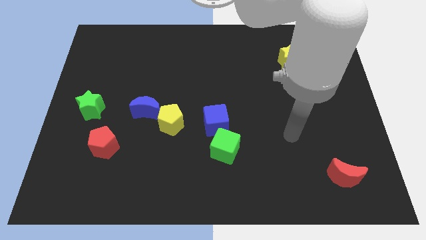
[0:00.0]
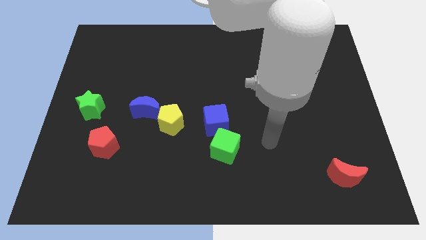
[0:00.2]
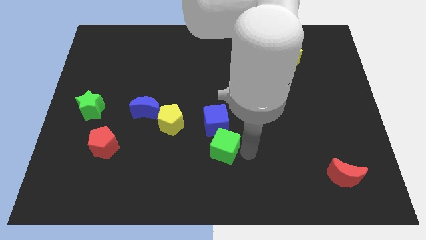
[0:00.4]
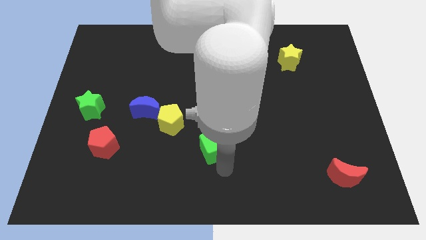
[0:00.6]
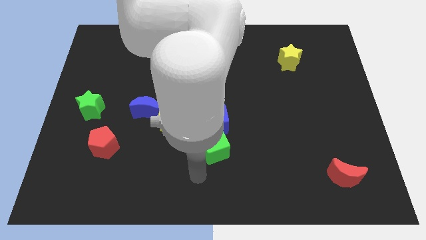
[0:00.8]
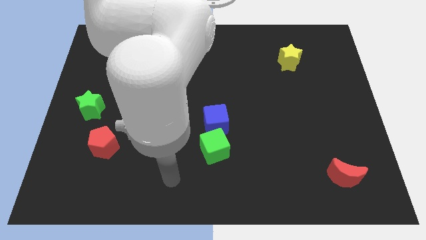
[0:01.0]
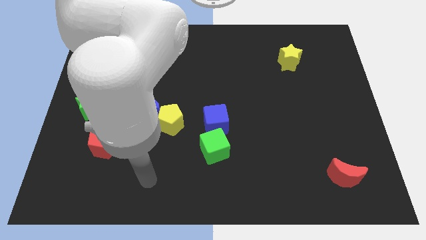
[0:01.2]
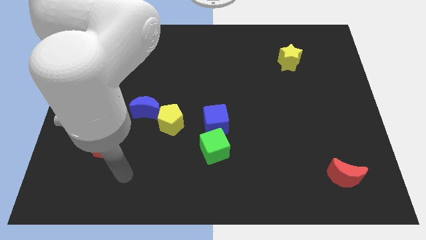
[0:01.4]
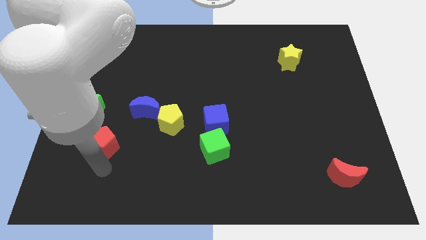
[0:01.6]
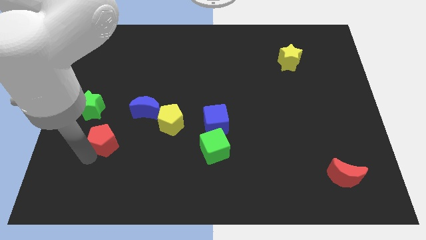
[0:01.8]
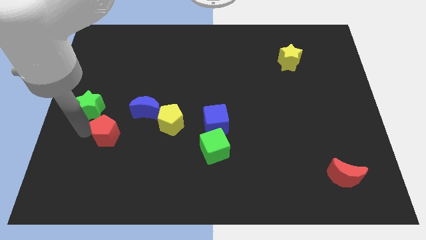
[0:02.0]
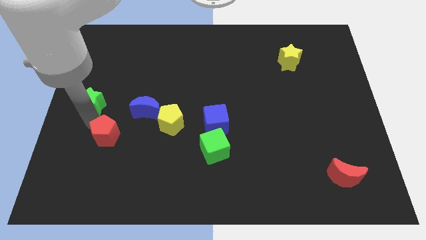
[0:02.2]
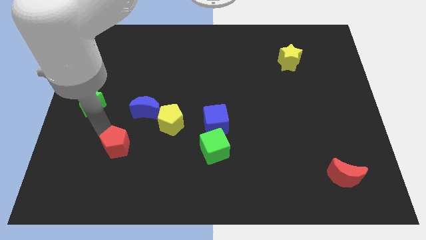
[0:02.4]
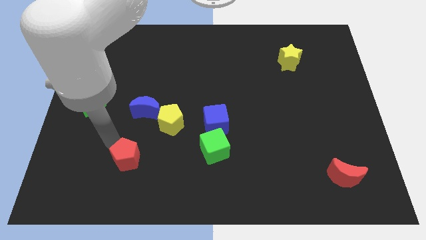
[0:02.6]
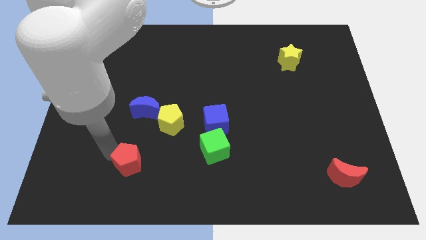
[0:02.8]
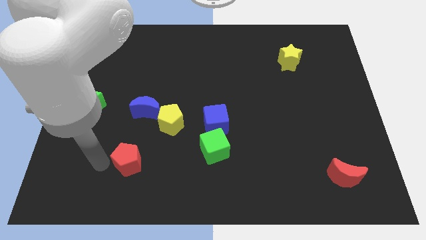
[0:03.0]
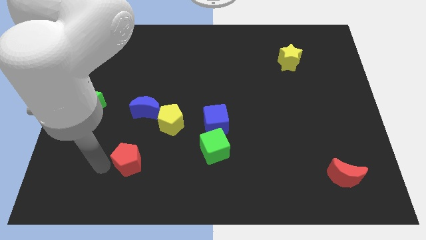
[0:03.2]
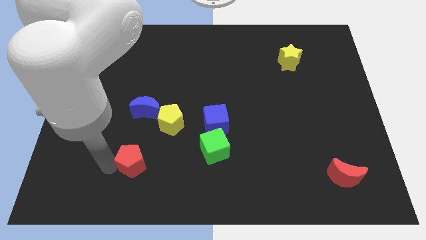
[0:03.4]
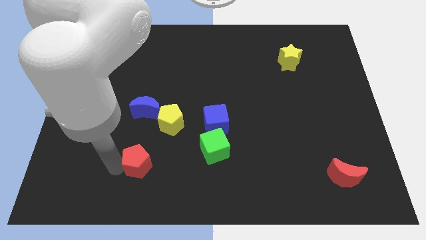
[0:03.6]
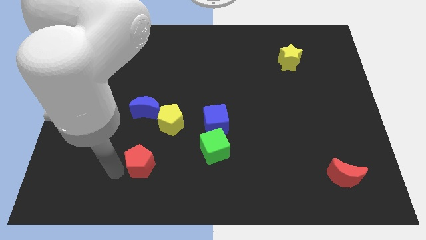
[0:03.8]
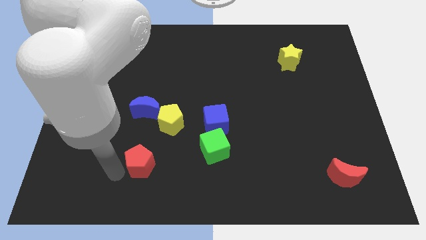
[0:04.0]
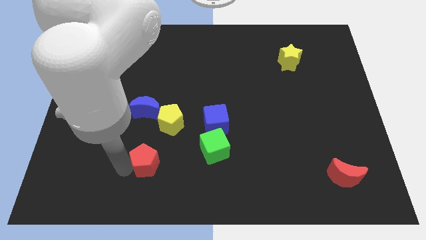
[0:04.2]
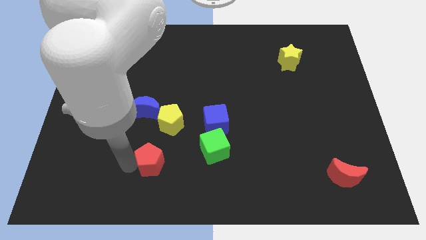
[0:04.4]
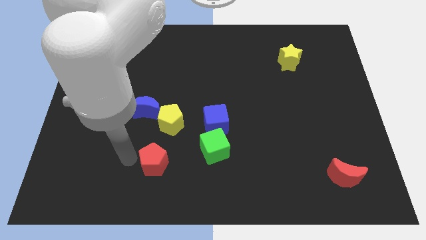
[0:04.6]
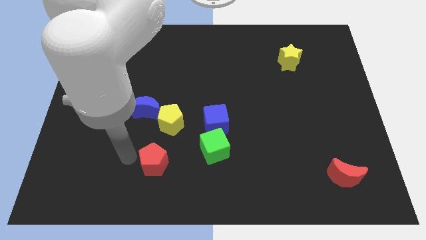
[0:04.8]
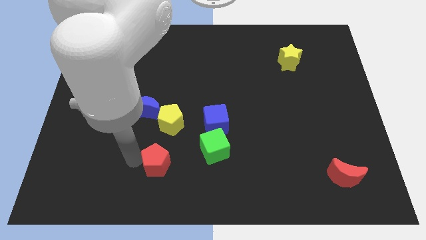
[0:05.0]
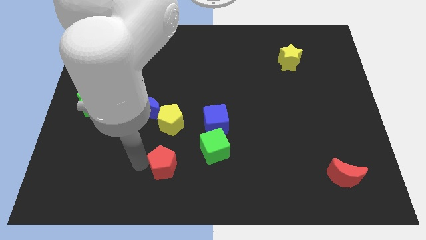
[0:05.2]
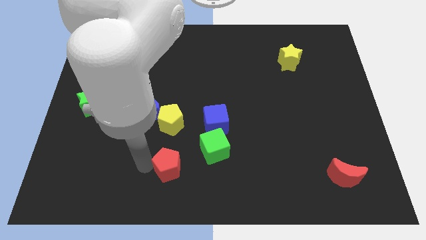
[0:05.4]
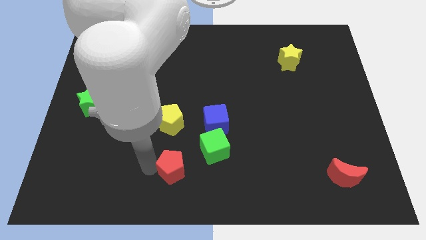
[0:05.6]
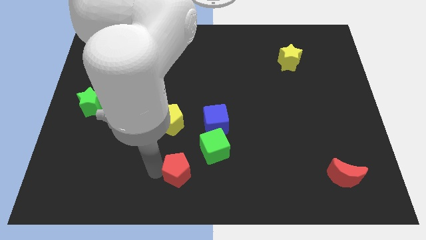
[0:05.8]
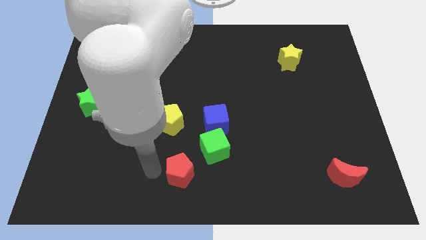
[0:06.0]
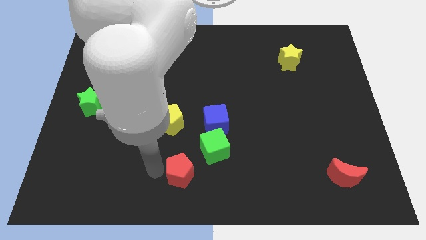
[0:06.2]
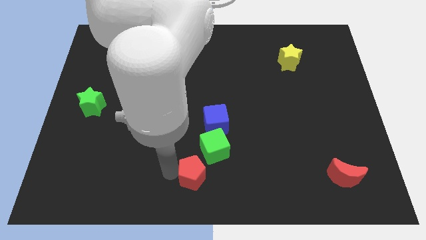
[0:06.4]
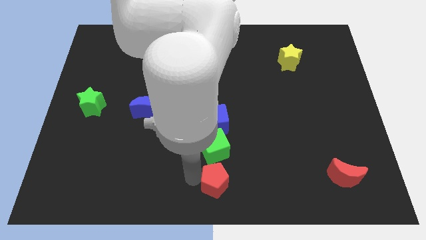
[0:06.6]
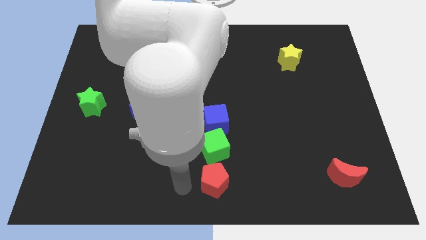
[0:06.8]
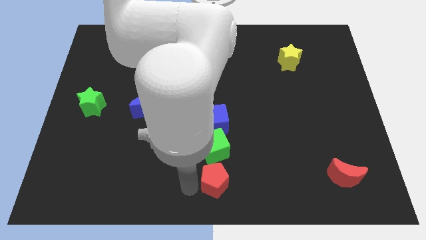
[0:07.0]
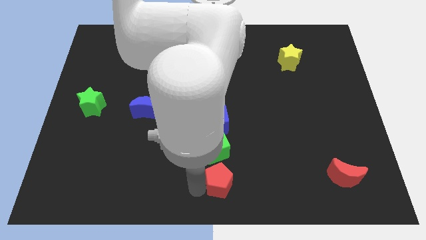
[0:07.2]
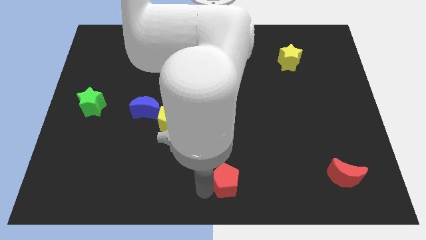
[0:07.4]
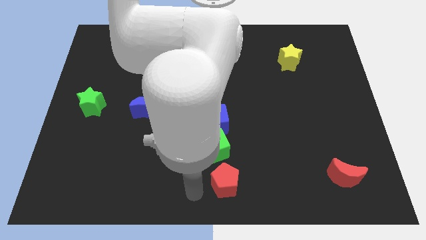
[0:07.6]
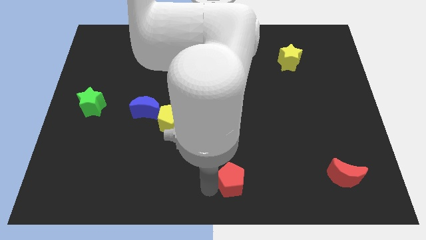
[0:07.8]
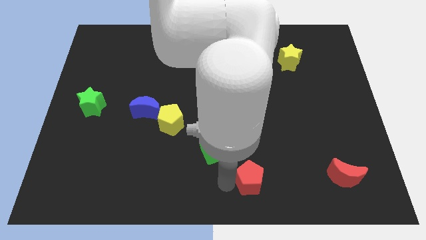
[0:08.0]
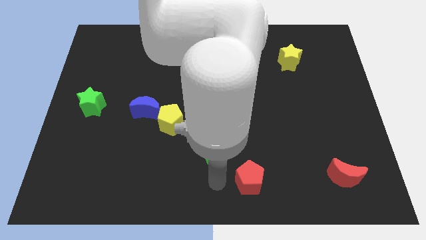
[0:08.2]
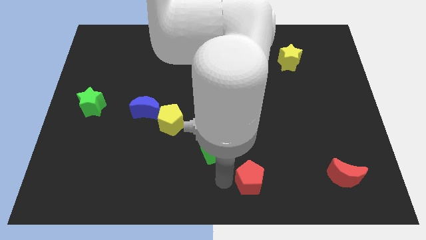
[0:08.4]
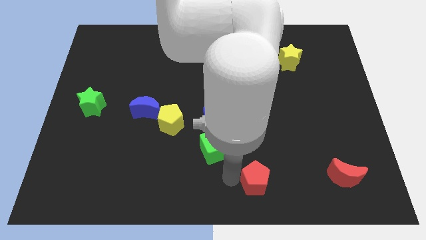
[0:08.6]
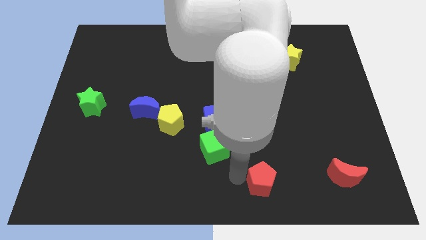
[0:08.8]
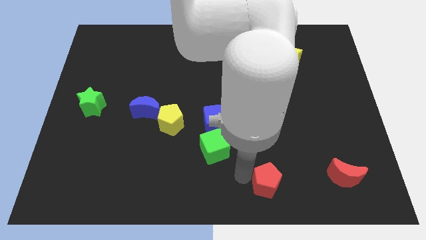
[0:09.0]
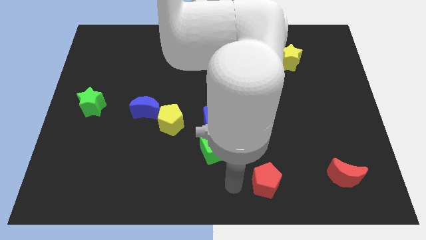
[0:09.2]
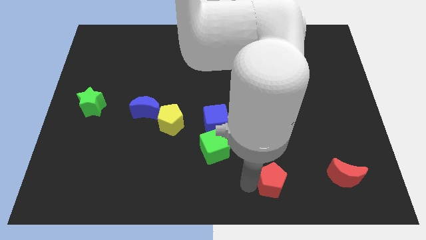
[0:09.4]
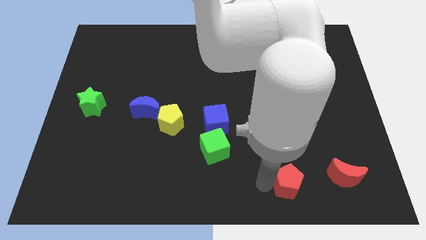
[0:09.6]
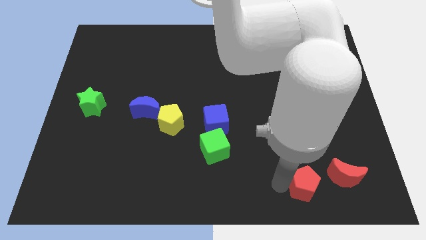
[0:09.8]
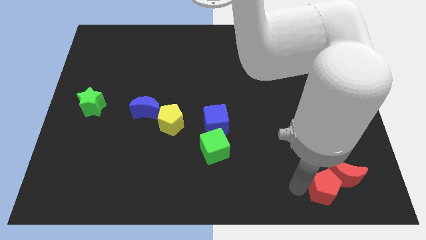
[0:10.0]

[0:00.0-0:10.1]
put the red pentagon close to the red moon

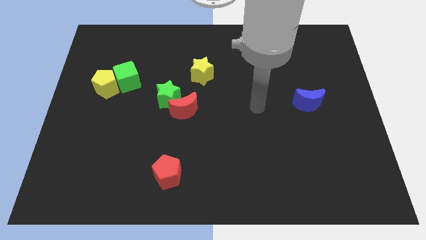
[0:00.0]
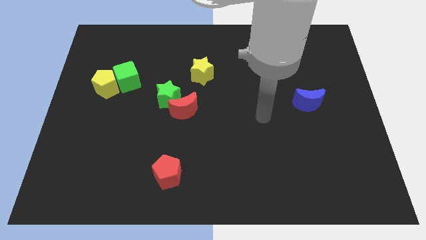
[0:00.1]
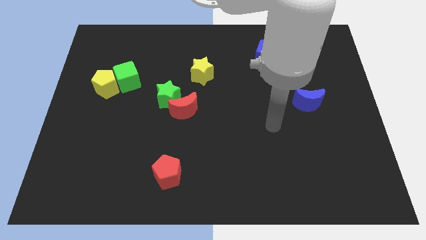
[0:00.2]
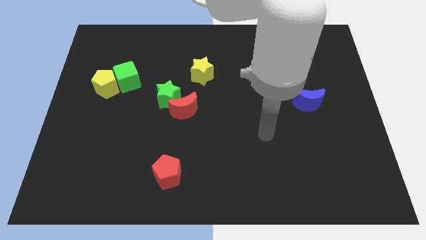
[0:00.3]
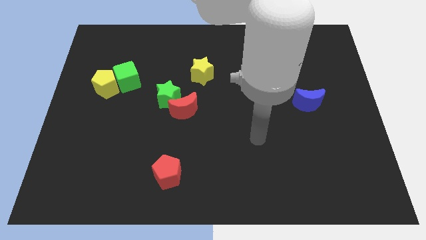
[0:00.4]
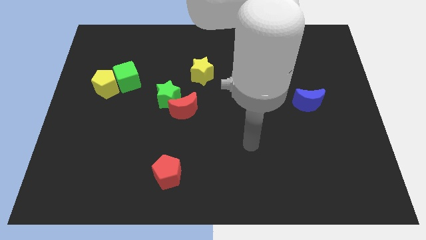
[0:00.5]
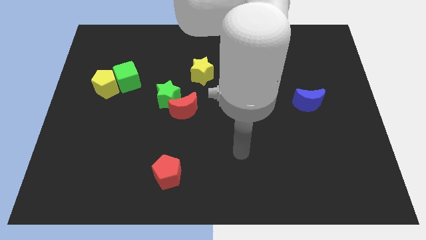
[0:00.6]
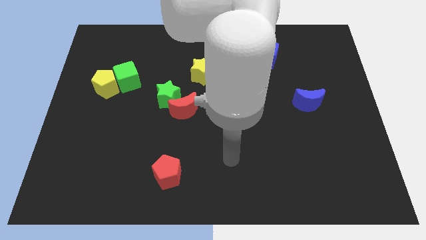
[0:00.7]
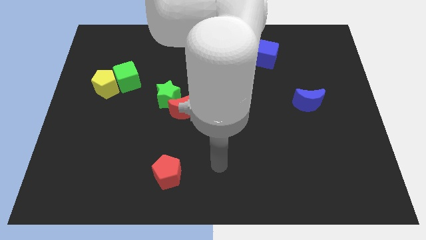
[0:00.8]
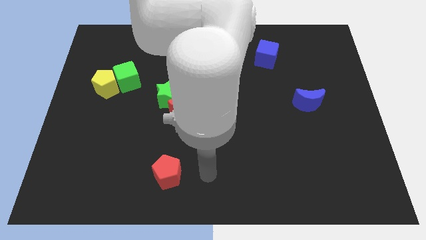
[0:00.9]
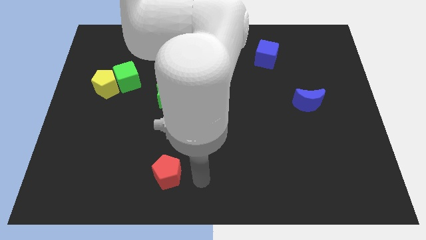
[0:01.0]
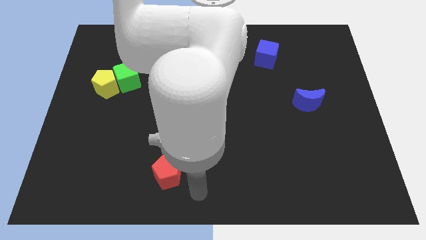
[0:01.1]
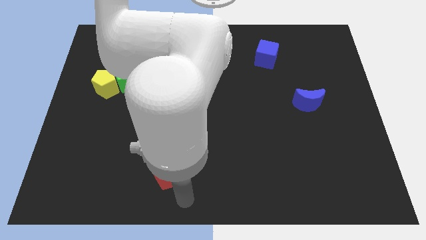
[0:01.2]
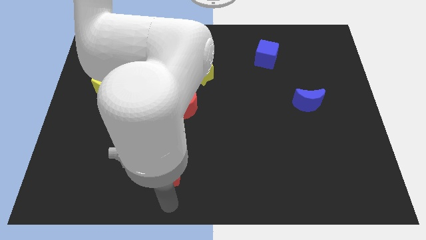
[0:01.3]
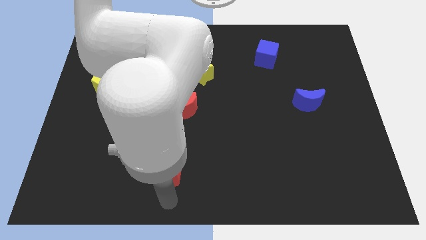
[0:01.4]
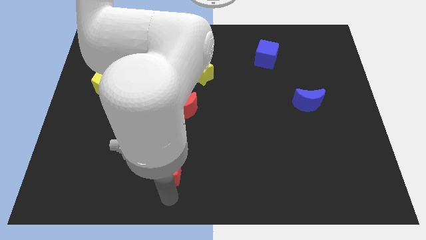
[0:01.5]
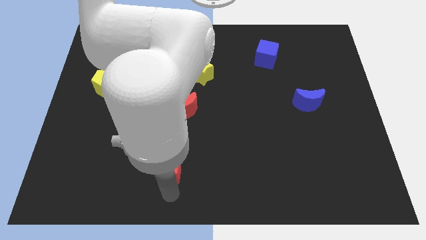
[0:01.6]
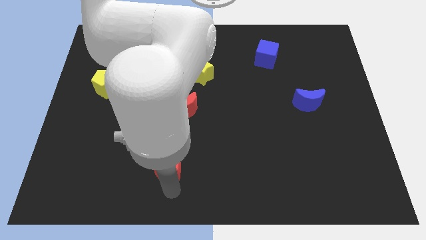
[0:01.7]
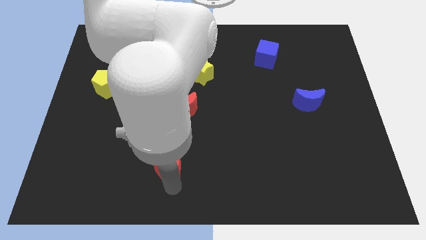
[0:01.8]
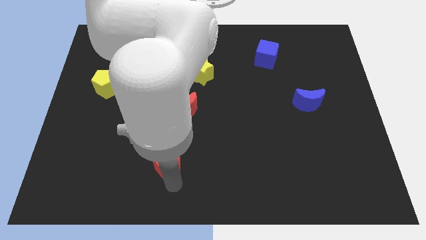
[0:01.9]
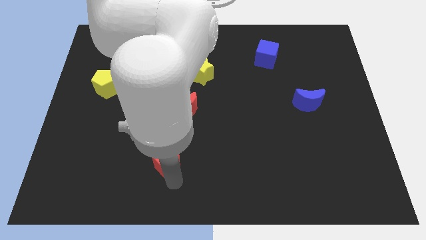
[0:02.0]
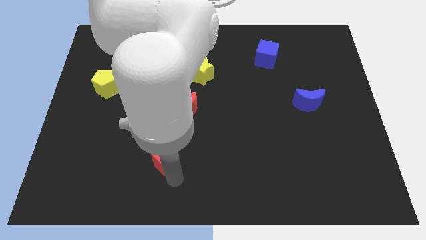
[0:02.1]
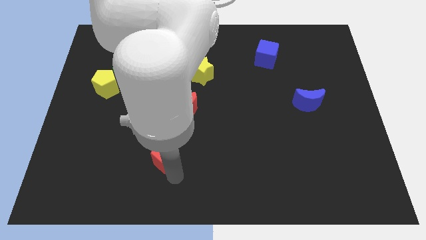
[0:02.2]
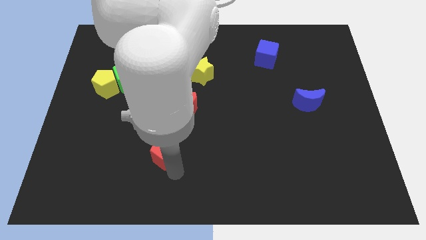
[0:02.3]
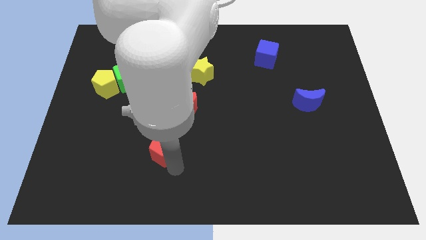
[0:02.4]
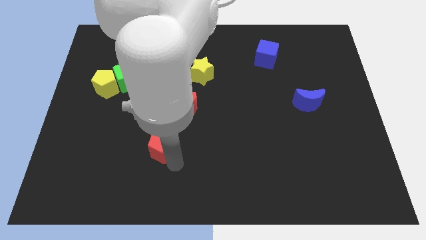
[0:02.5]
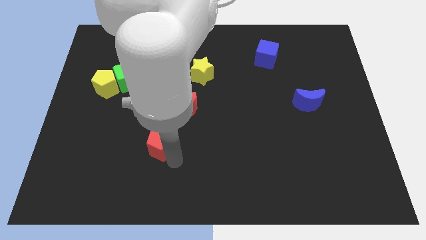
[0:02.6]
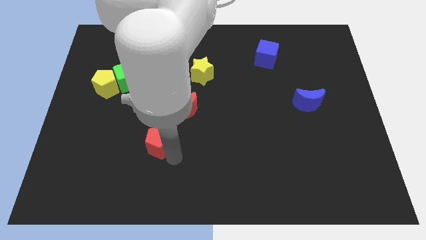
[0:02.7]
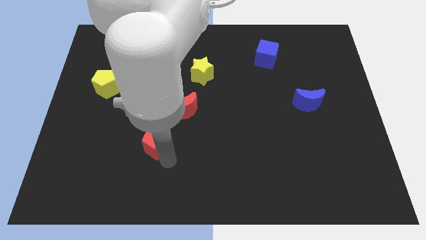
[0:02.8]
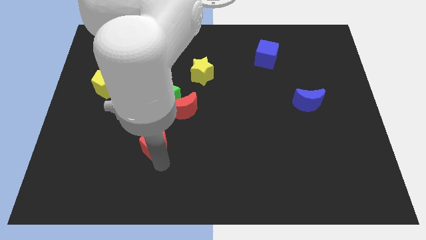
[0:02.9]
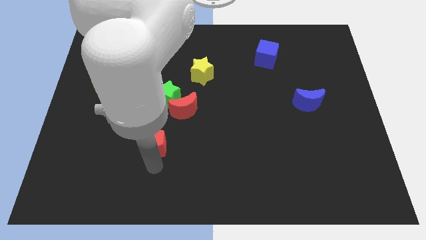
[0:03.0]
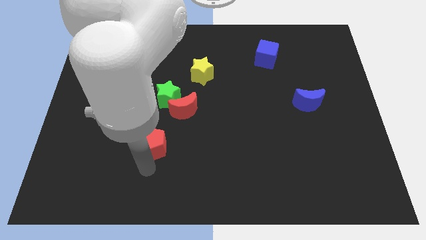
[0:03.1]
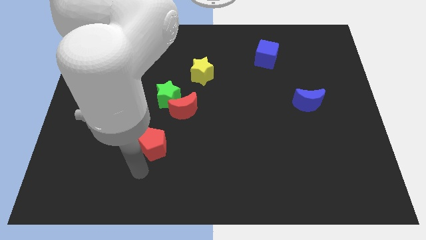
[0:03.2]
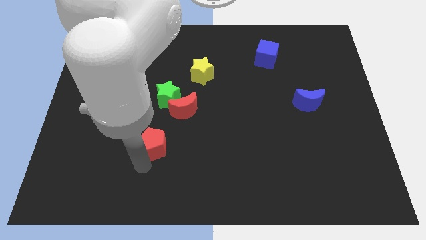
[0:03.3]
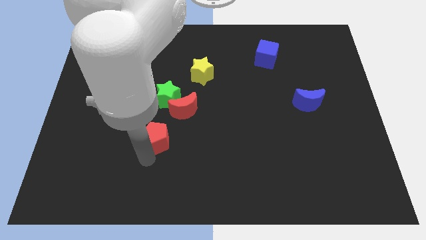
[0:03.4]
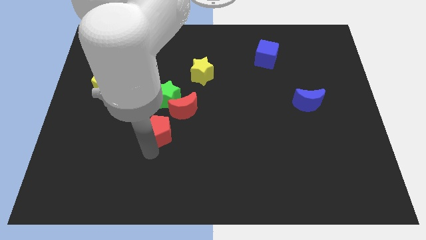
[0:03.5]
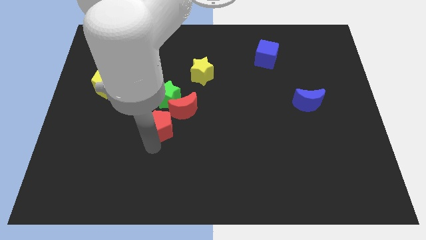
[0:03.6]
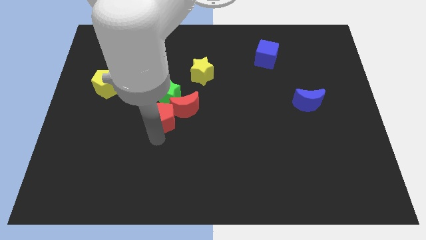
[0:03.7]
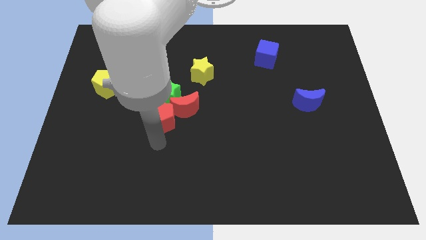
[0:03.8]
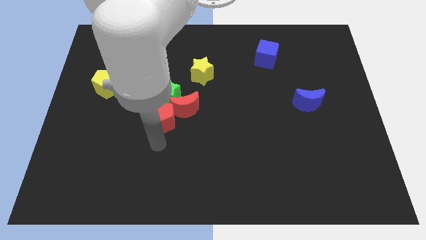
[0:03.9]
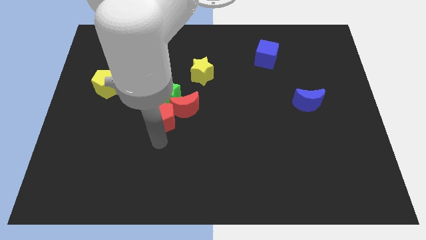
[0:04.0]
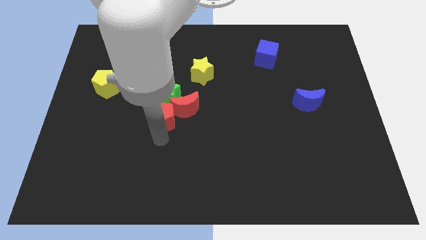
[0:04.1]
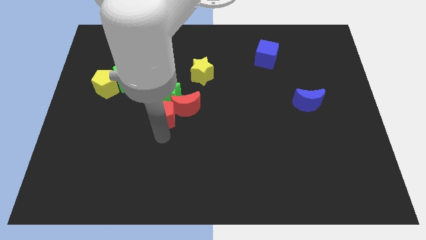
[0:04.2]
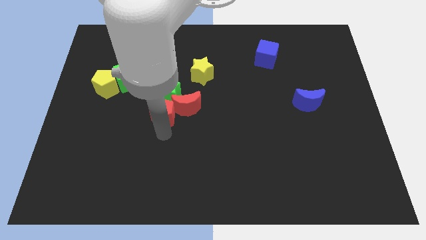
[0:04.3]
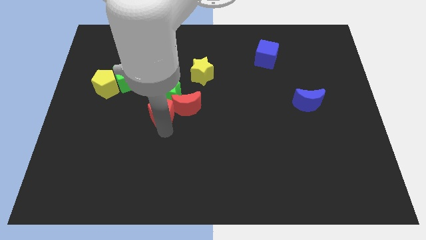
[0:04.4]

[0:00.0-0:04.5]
move the red pentagon to the green star
